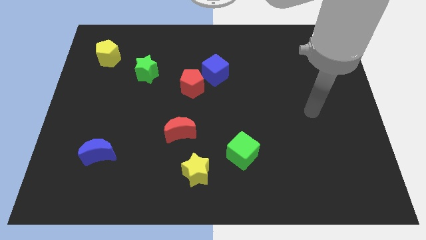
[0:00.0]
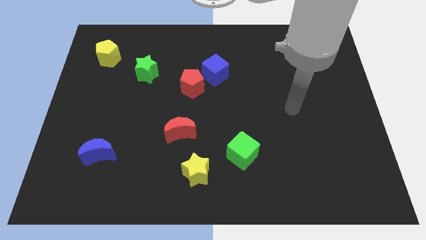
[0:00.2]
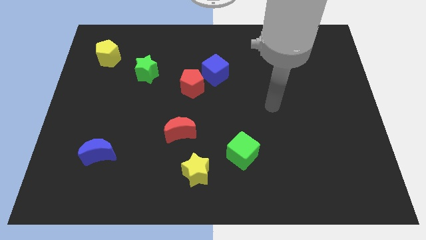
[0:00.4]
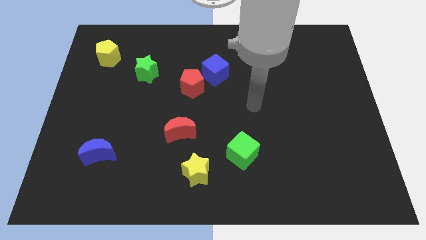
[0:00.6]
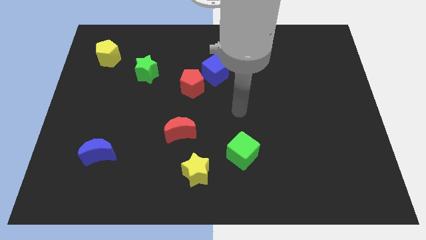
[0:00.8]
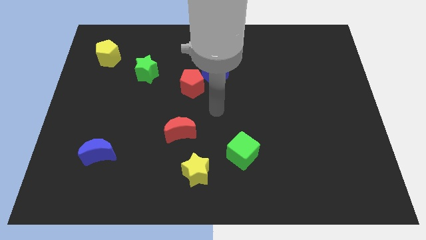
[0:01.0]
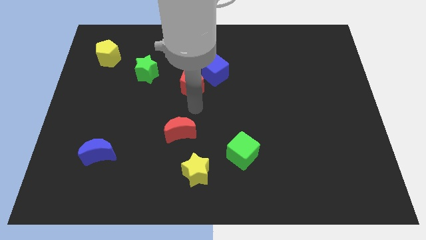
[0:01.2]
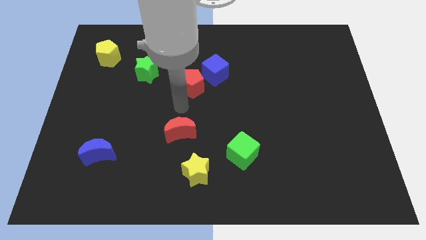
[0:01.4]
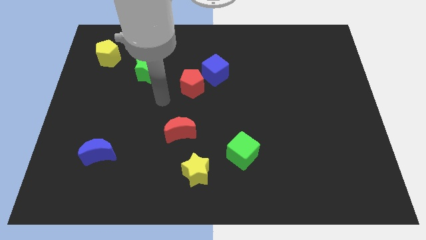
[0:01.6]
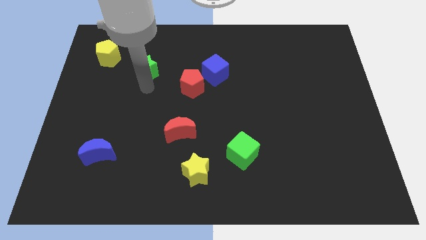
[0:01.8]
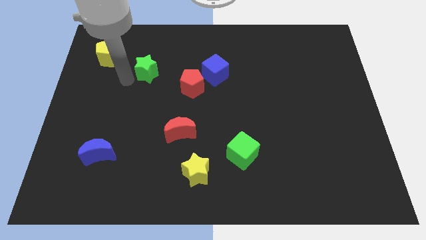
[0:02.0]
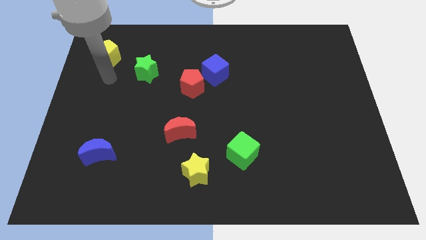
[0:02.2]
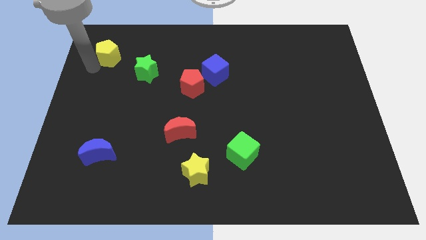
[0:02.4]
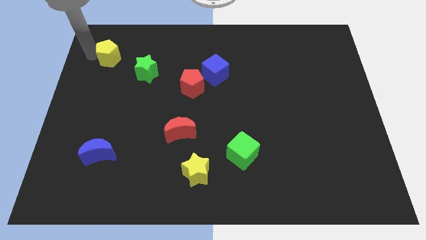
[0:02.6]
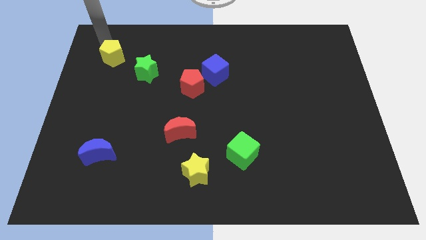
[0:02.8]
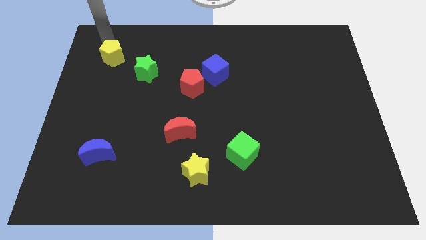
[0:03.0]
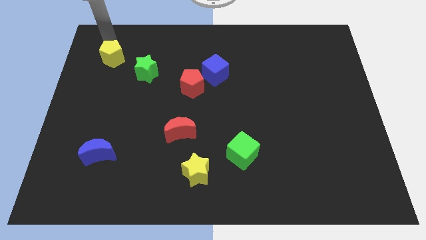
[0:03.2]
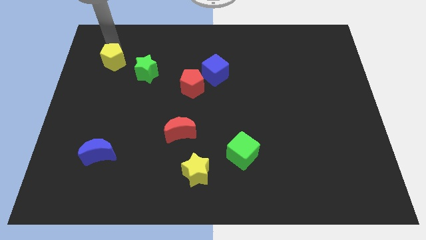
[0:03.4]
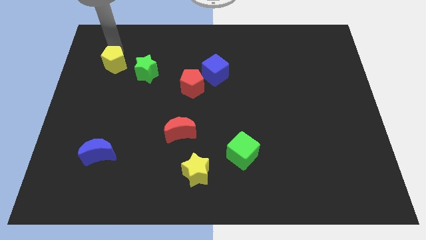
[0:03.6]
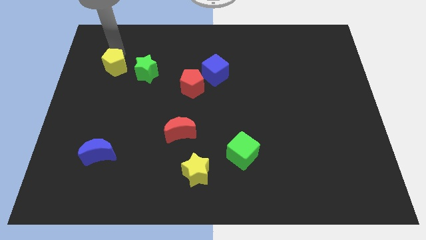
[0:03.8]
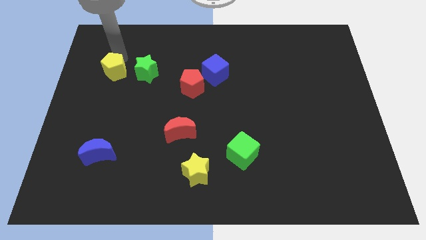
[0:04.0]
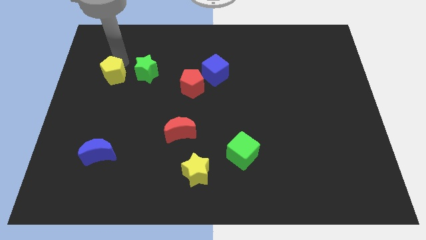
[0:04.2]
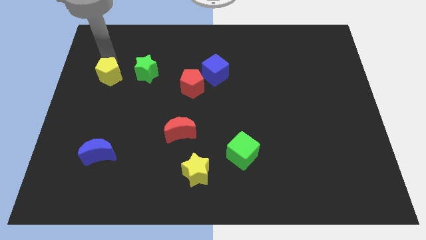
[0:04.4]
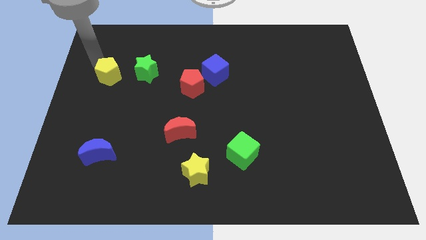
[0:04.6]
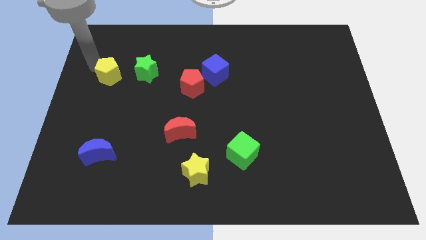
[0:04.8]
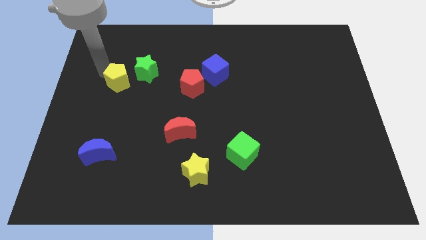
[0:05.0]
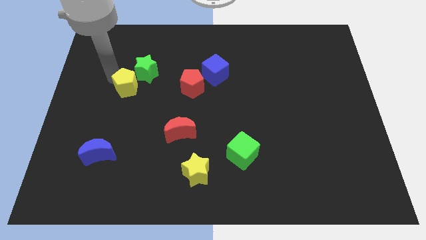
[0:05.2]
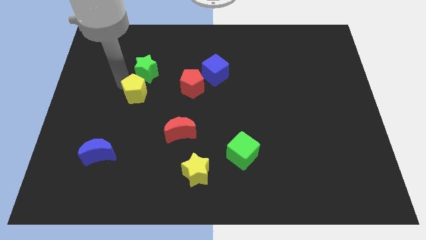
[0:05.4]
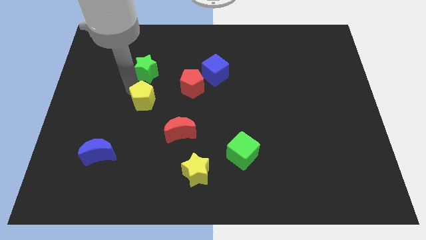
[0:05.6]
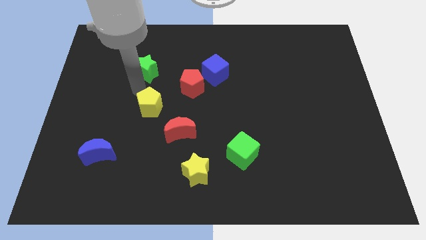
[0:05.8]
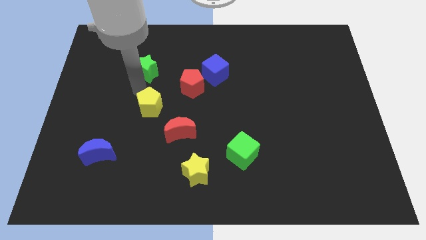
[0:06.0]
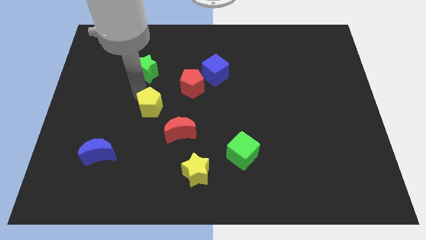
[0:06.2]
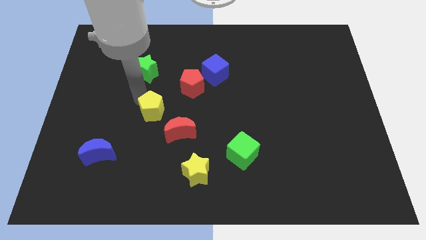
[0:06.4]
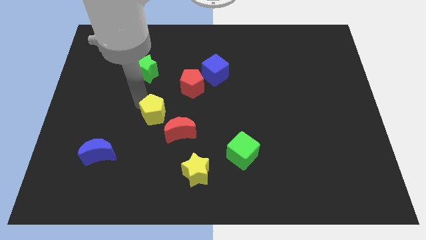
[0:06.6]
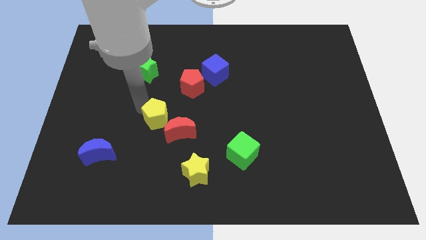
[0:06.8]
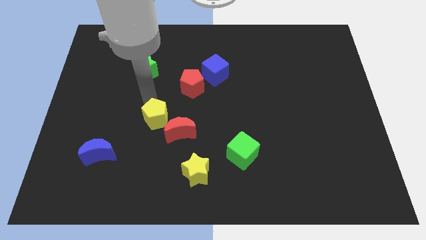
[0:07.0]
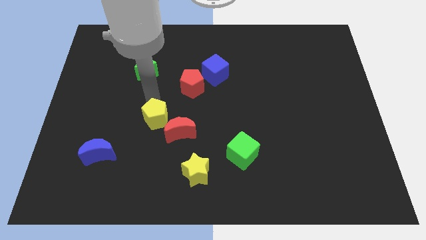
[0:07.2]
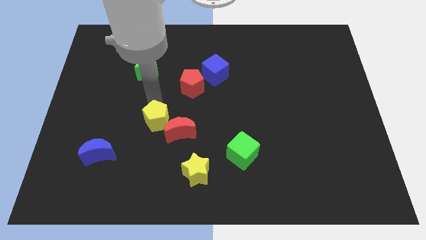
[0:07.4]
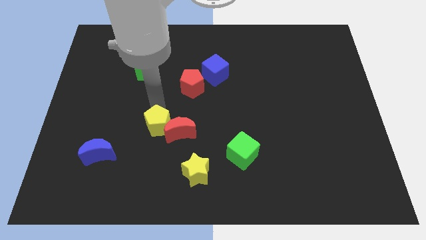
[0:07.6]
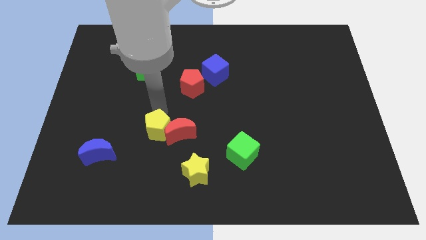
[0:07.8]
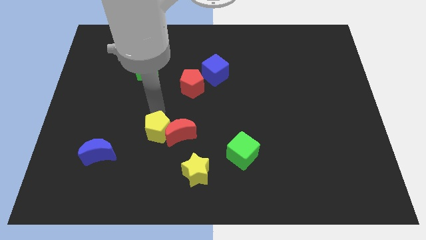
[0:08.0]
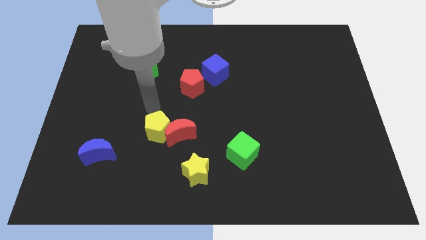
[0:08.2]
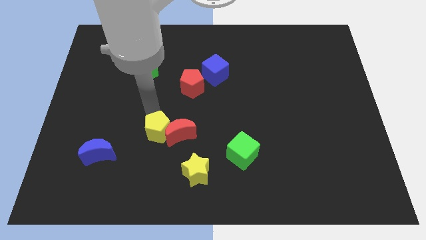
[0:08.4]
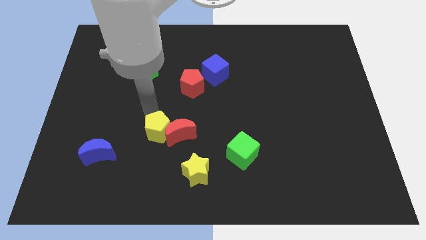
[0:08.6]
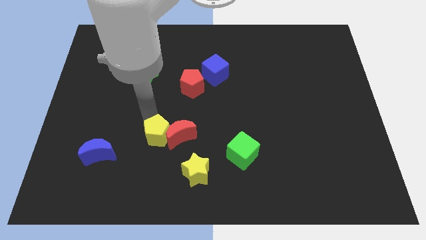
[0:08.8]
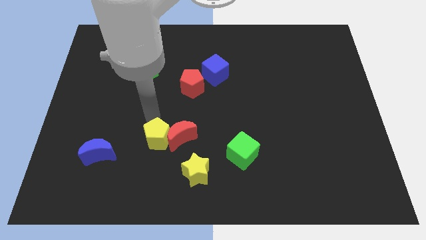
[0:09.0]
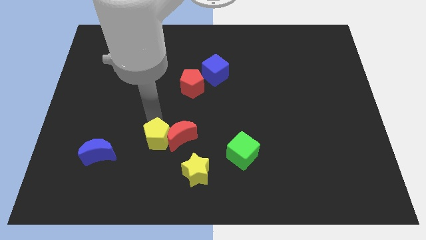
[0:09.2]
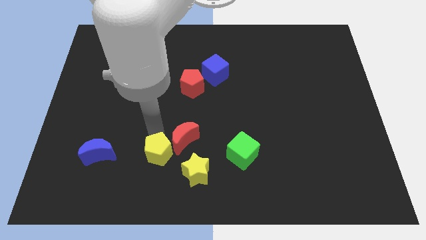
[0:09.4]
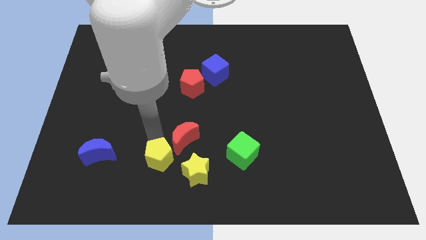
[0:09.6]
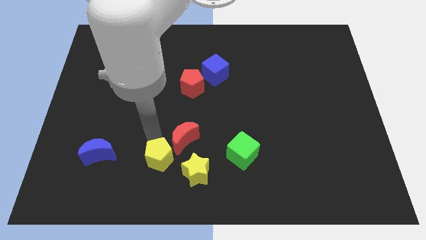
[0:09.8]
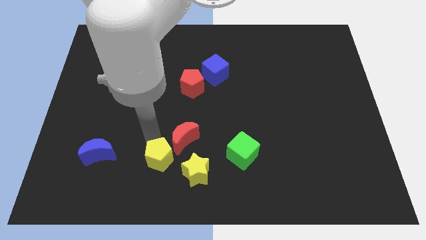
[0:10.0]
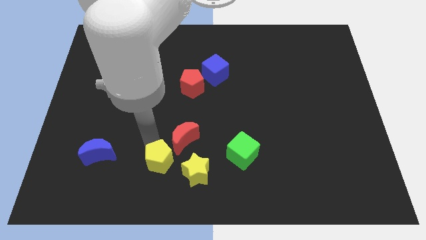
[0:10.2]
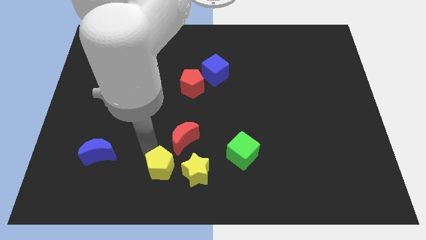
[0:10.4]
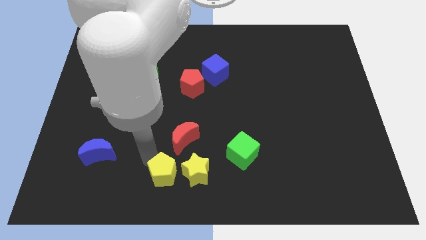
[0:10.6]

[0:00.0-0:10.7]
move the yellow pentagon to the bottom side
